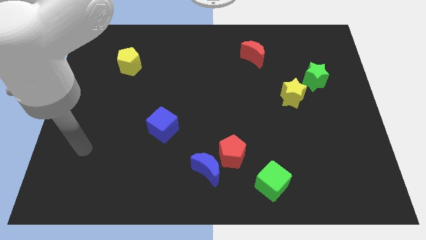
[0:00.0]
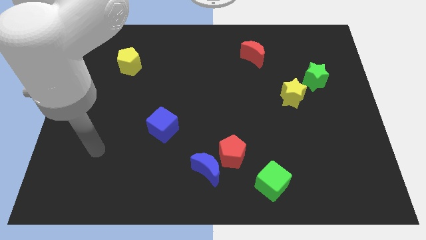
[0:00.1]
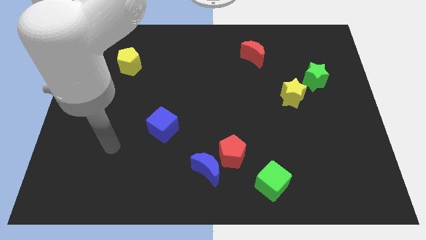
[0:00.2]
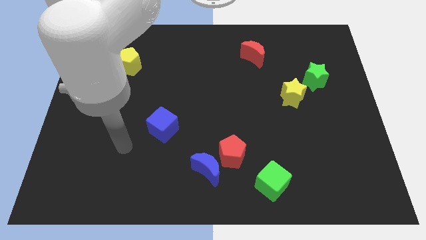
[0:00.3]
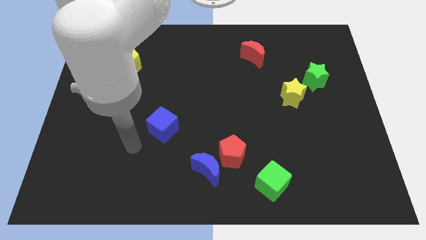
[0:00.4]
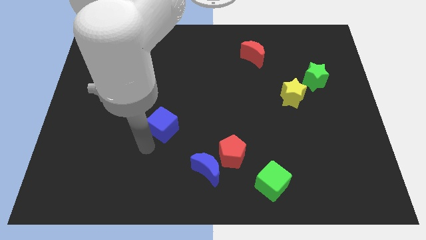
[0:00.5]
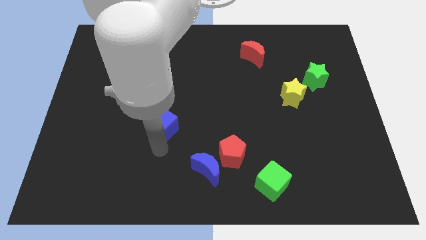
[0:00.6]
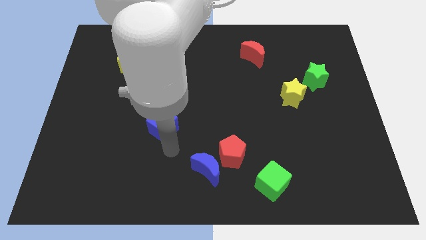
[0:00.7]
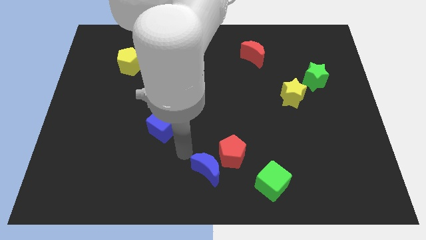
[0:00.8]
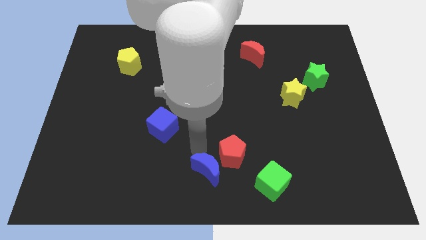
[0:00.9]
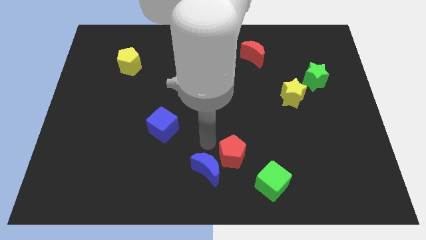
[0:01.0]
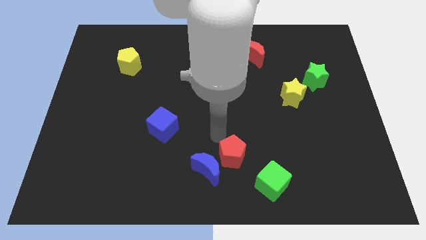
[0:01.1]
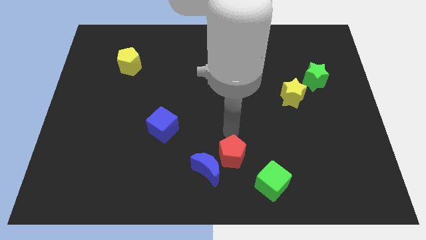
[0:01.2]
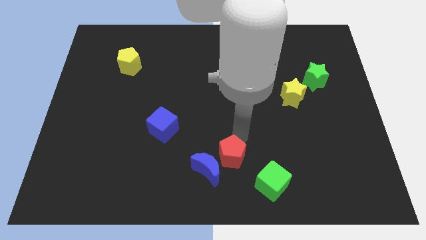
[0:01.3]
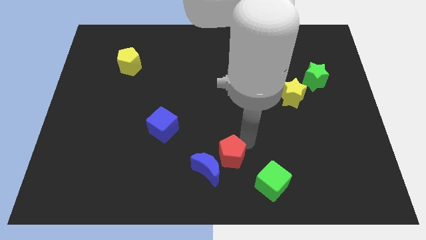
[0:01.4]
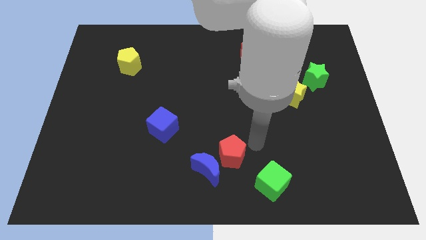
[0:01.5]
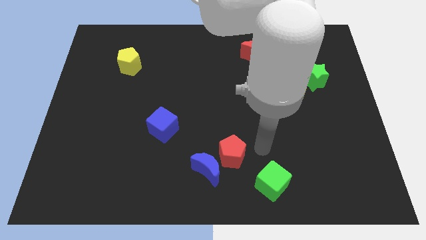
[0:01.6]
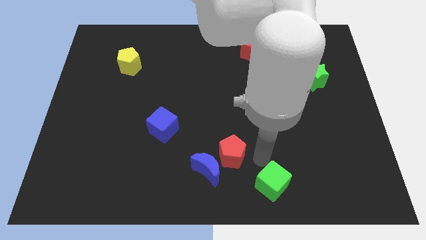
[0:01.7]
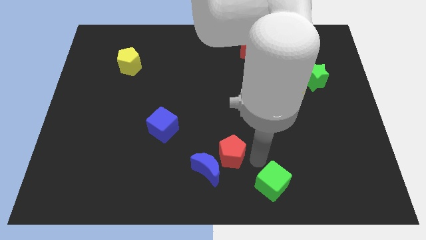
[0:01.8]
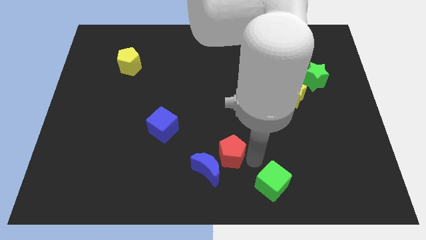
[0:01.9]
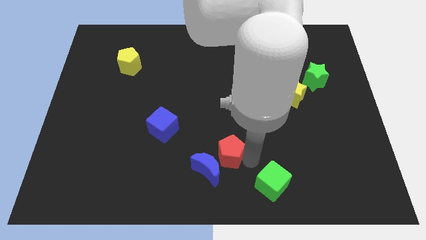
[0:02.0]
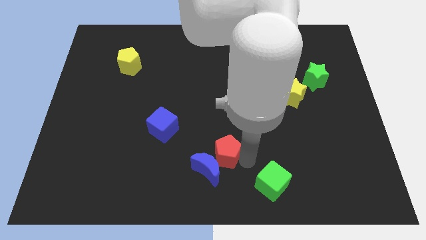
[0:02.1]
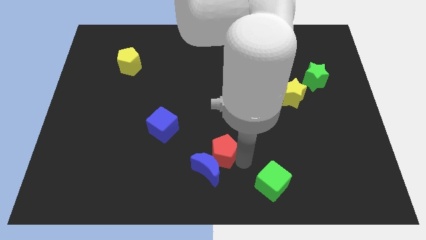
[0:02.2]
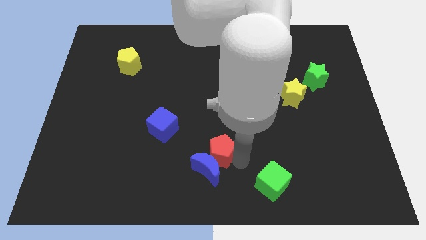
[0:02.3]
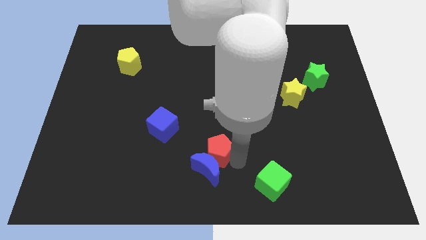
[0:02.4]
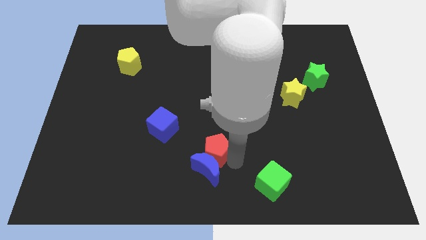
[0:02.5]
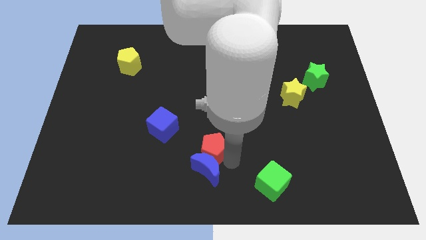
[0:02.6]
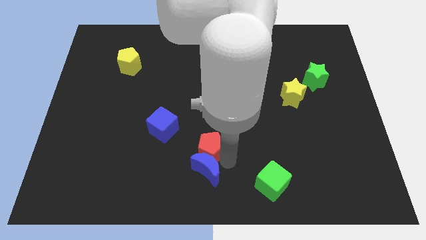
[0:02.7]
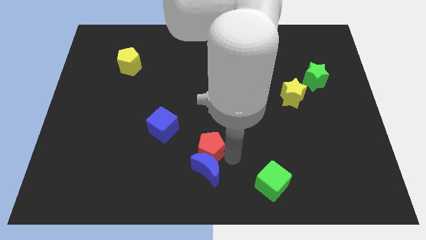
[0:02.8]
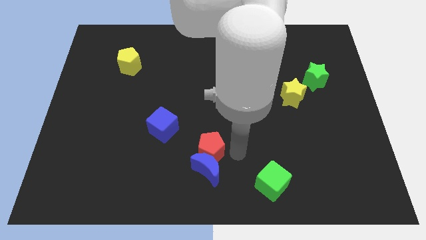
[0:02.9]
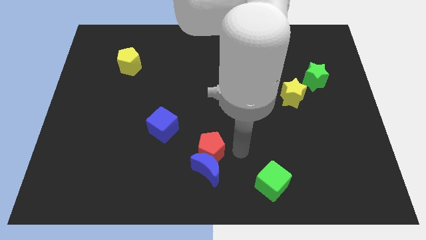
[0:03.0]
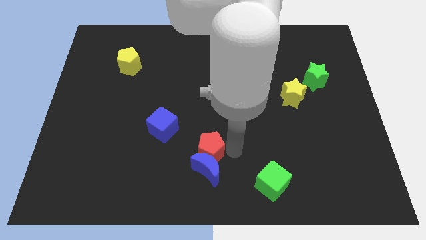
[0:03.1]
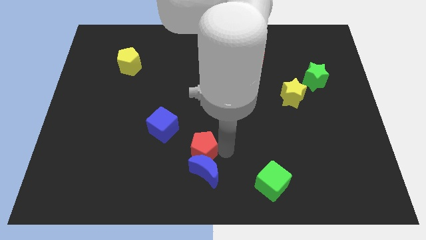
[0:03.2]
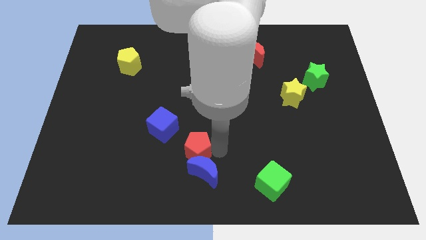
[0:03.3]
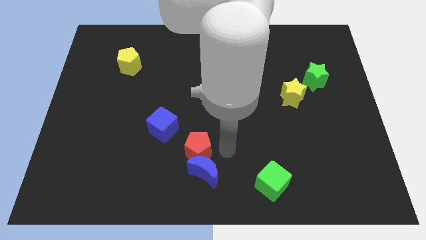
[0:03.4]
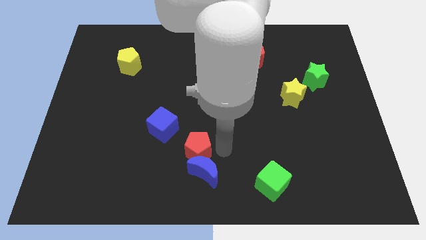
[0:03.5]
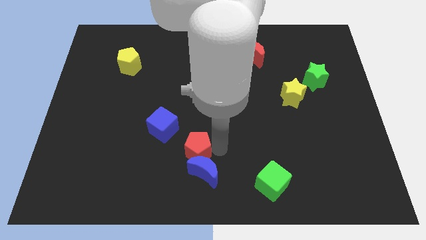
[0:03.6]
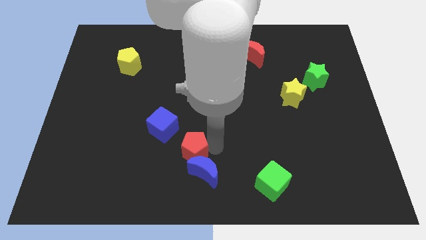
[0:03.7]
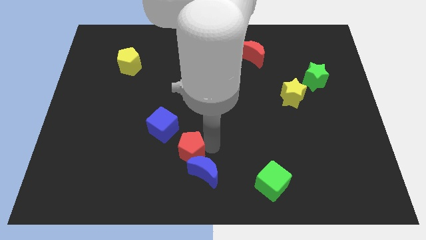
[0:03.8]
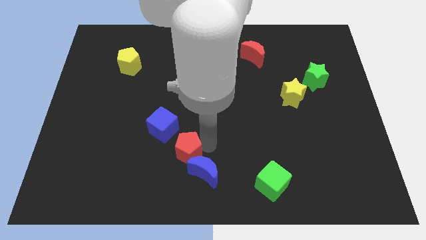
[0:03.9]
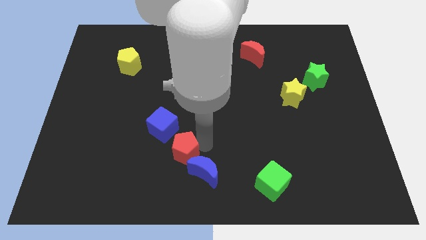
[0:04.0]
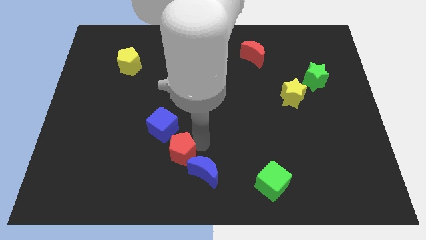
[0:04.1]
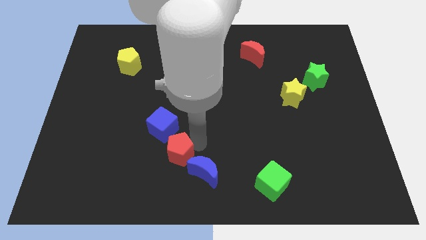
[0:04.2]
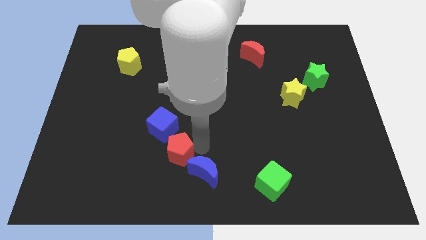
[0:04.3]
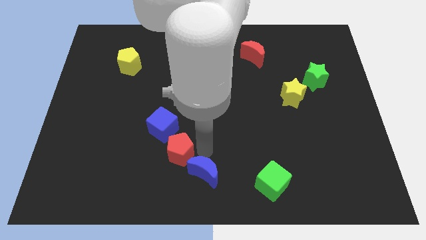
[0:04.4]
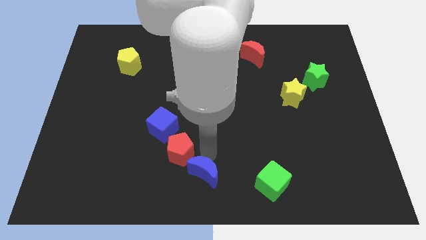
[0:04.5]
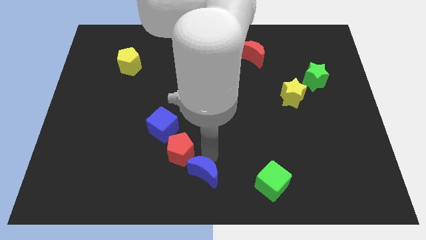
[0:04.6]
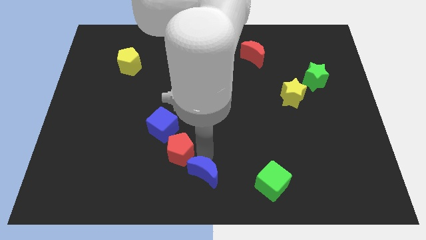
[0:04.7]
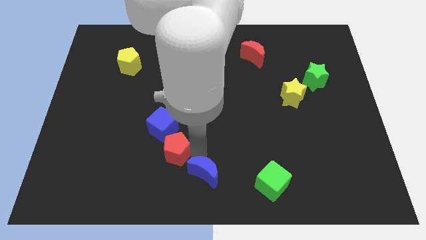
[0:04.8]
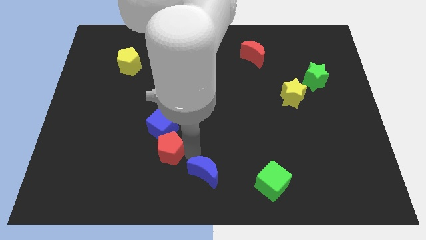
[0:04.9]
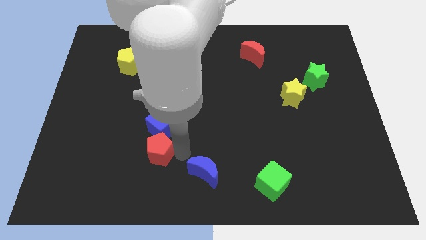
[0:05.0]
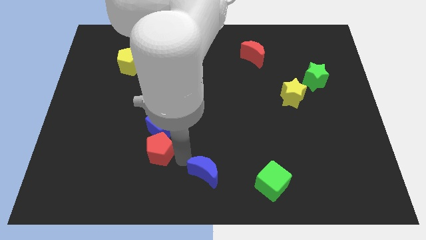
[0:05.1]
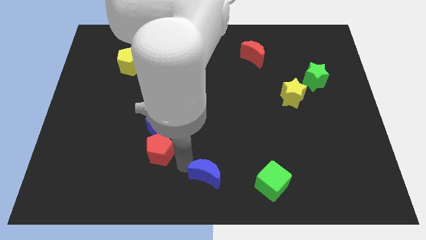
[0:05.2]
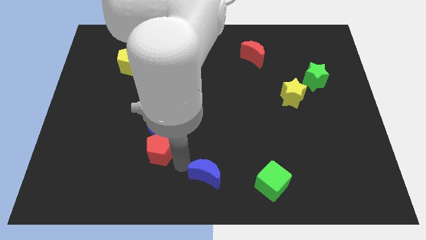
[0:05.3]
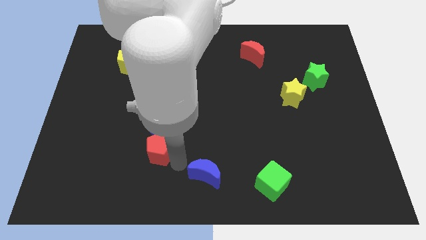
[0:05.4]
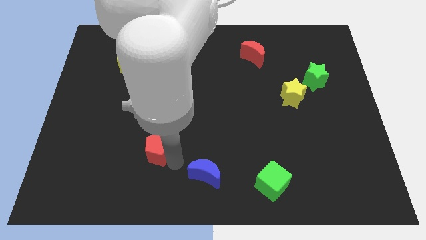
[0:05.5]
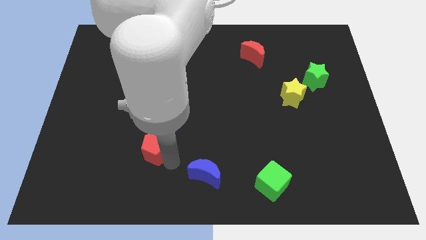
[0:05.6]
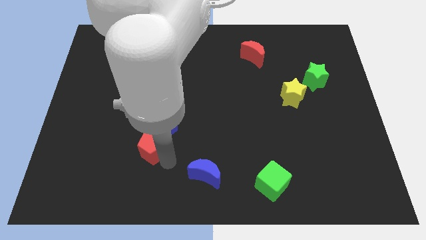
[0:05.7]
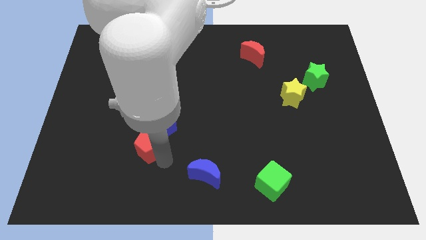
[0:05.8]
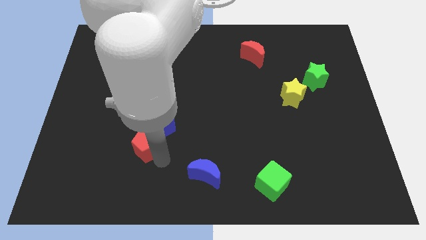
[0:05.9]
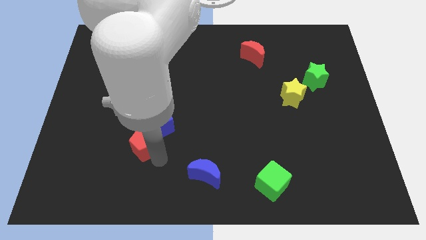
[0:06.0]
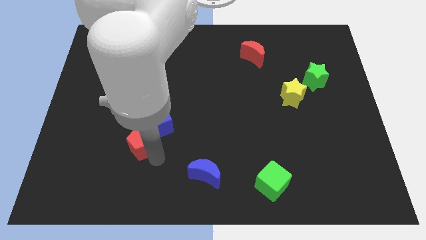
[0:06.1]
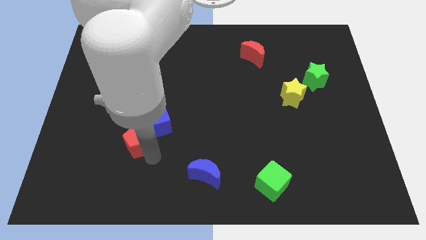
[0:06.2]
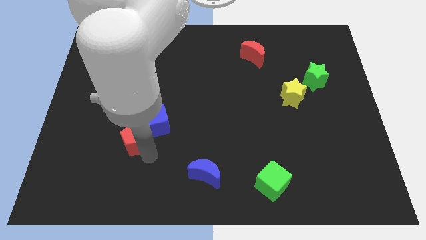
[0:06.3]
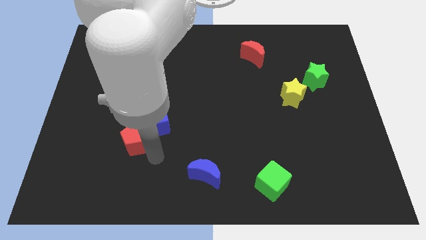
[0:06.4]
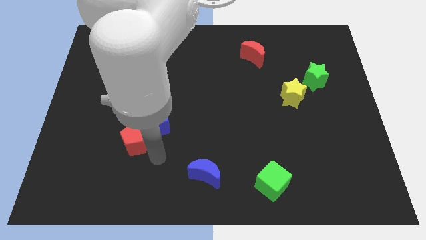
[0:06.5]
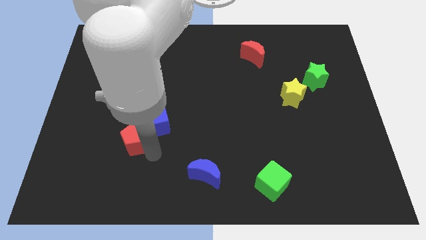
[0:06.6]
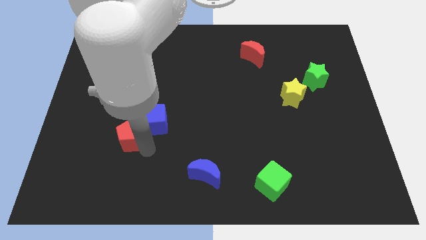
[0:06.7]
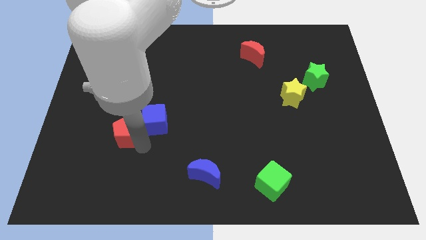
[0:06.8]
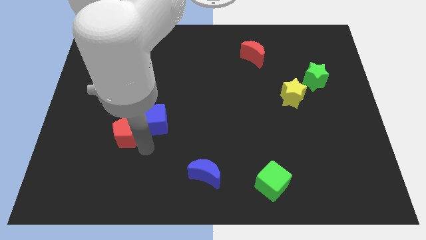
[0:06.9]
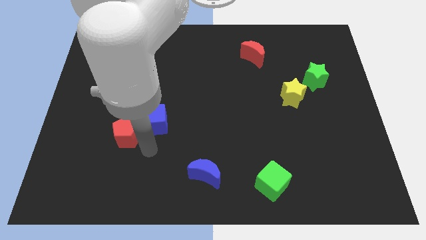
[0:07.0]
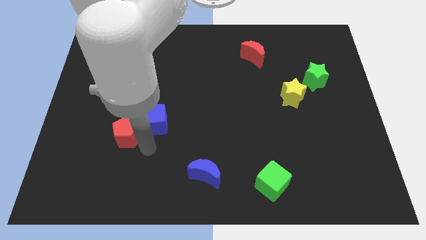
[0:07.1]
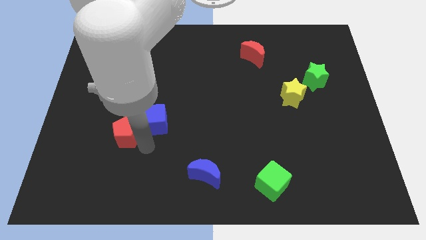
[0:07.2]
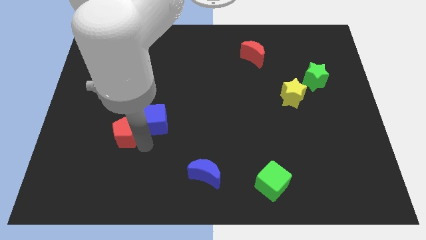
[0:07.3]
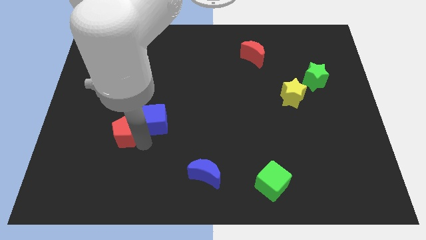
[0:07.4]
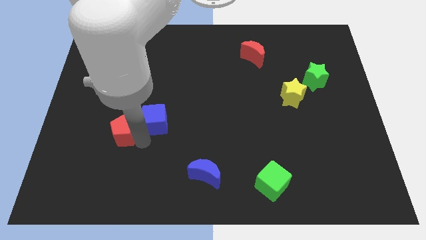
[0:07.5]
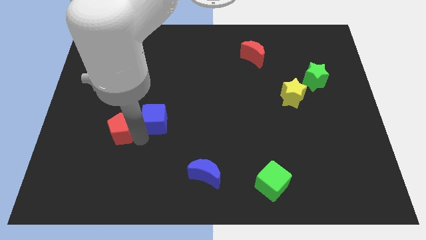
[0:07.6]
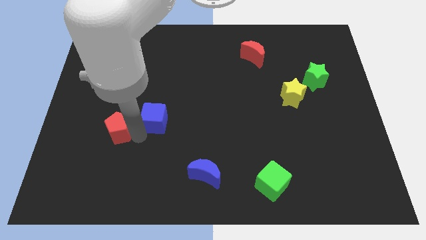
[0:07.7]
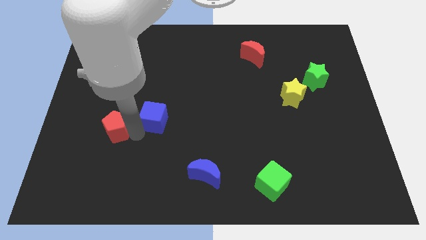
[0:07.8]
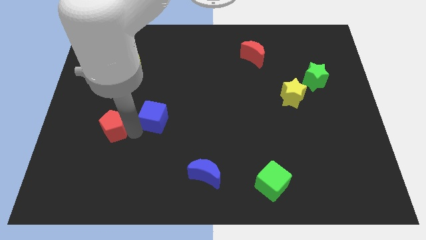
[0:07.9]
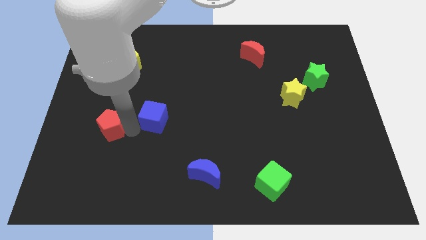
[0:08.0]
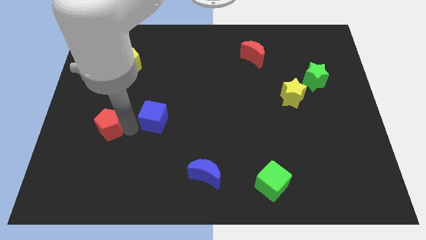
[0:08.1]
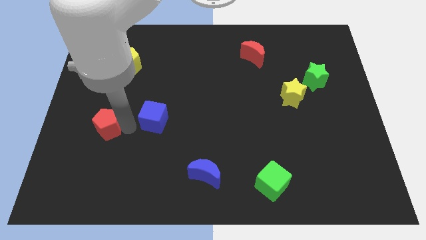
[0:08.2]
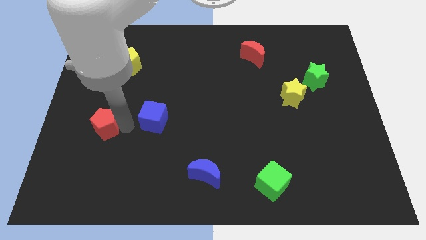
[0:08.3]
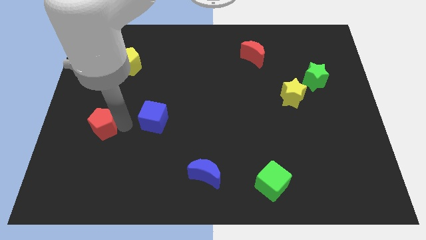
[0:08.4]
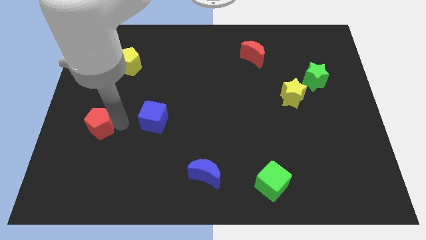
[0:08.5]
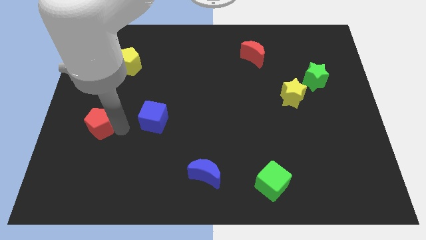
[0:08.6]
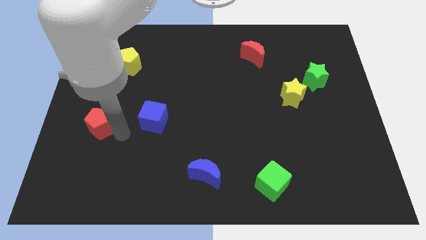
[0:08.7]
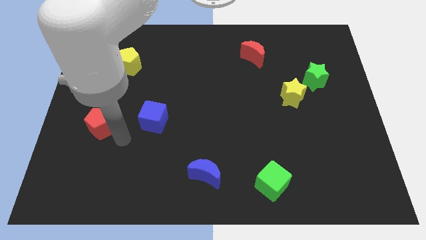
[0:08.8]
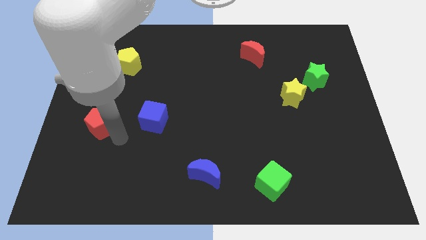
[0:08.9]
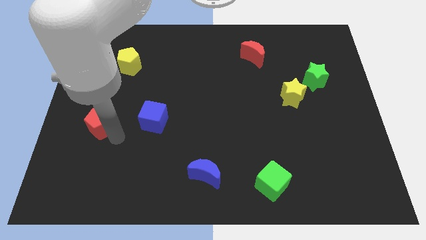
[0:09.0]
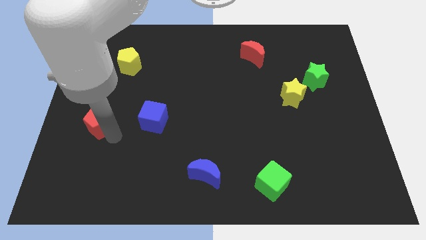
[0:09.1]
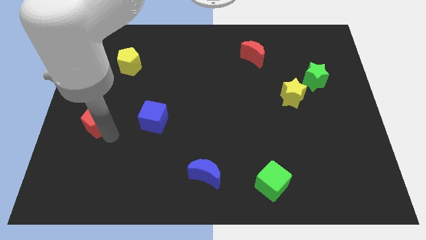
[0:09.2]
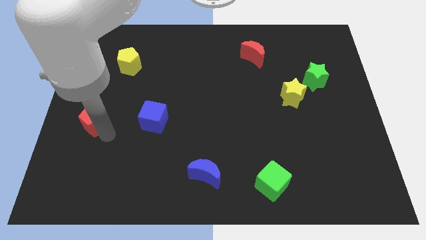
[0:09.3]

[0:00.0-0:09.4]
move the red pentagon to the left side of the board
